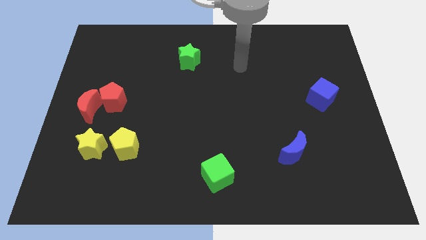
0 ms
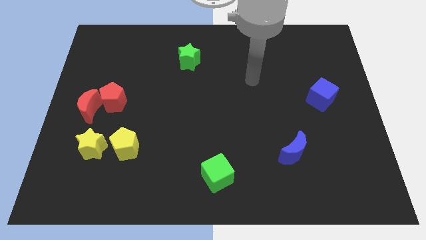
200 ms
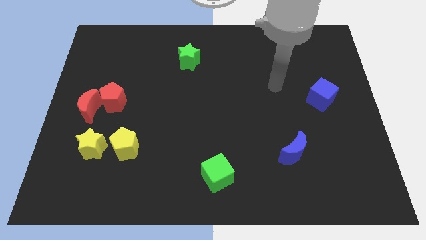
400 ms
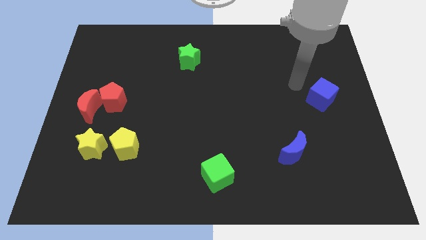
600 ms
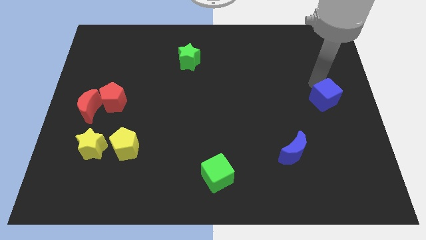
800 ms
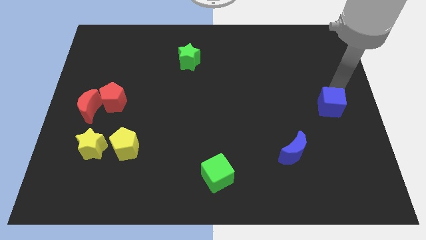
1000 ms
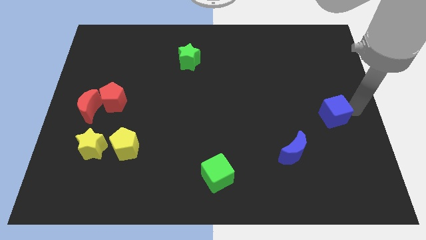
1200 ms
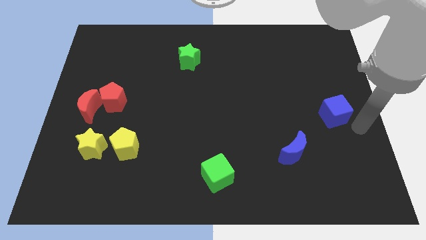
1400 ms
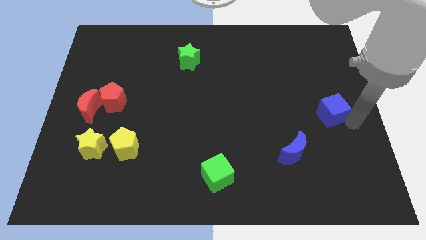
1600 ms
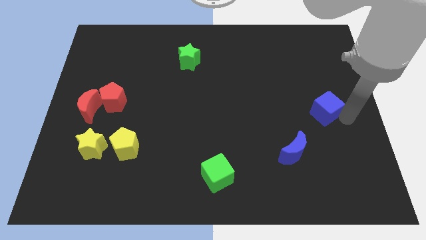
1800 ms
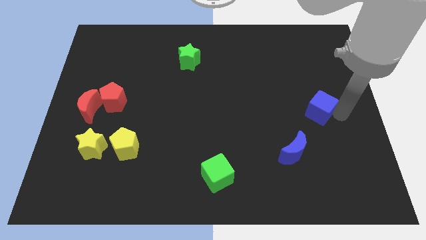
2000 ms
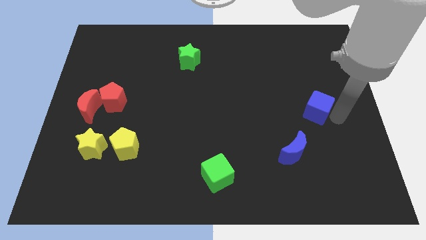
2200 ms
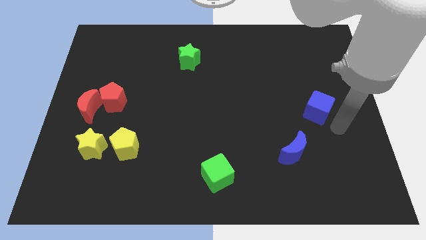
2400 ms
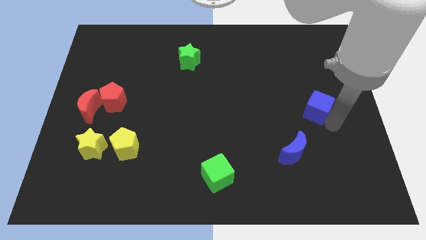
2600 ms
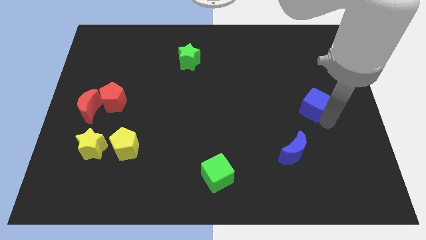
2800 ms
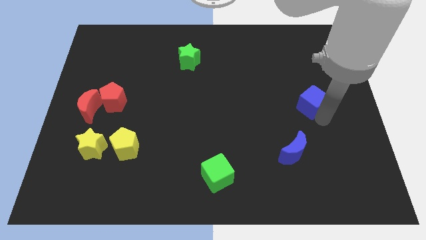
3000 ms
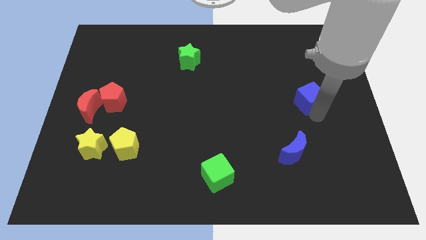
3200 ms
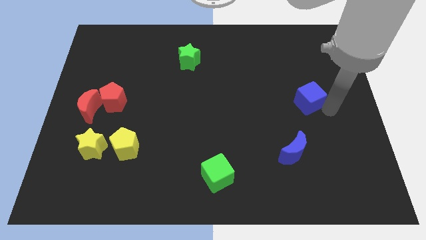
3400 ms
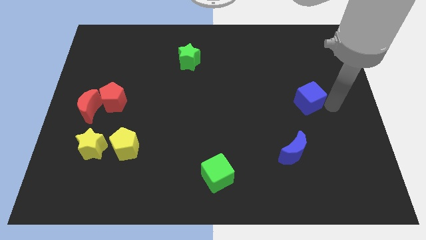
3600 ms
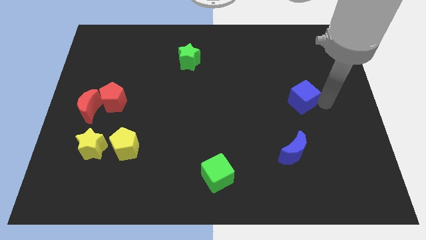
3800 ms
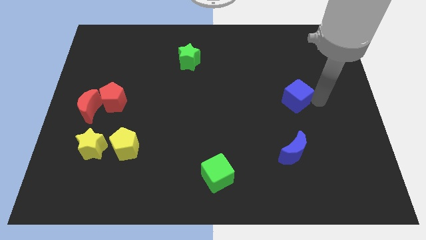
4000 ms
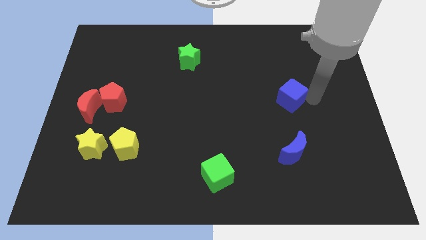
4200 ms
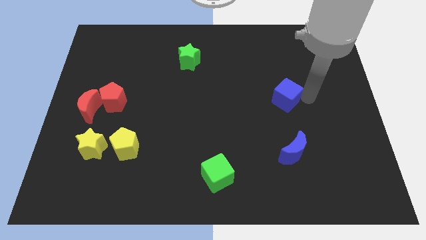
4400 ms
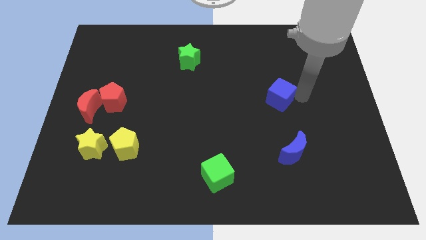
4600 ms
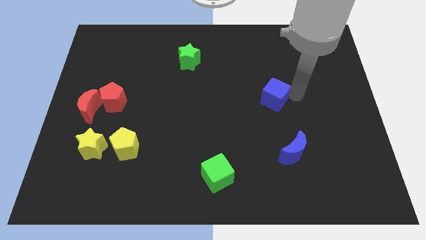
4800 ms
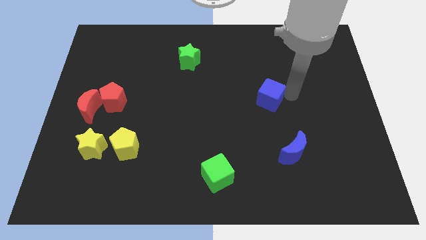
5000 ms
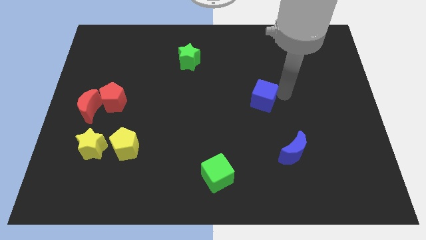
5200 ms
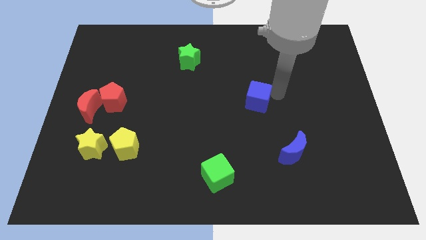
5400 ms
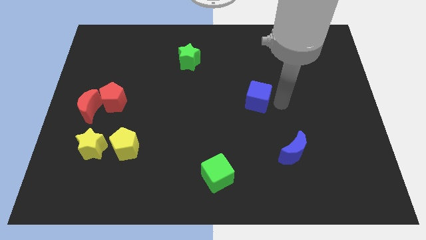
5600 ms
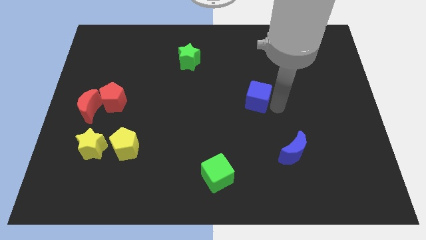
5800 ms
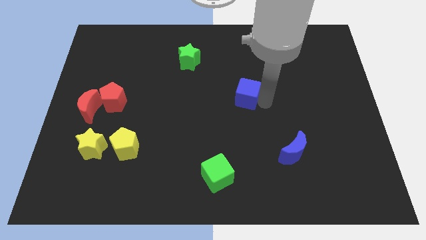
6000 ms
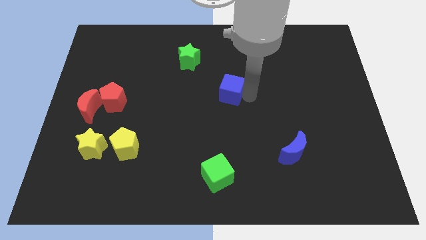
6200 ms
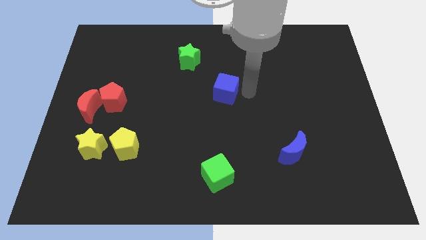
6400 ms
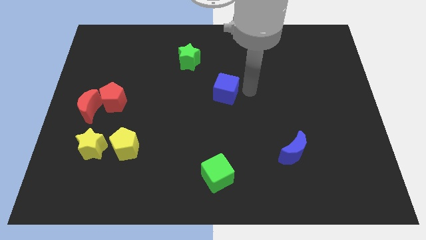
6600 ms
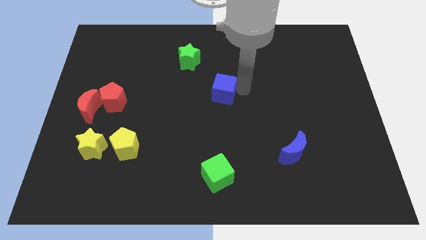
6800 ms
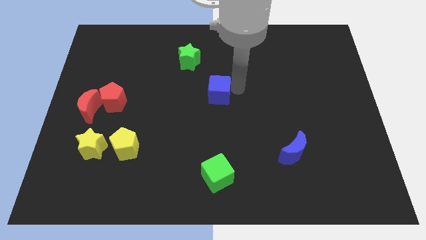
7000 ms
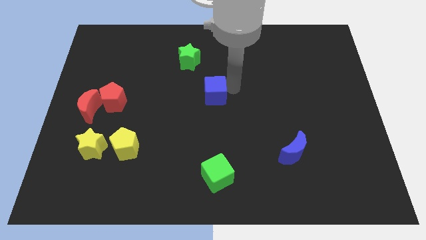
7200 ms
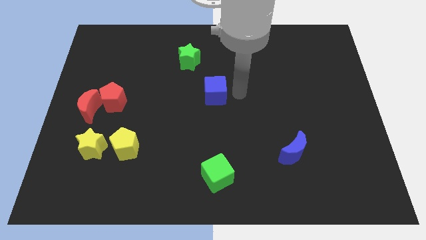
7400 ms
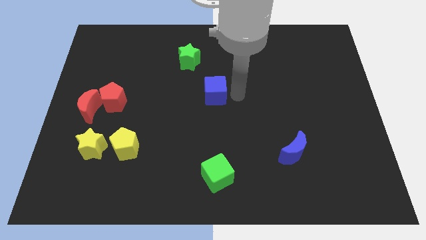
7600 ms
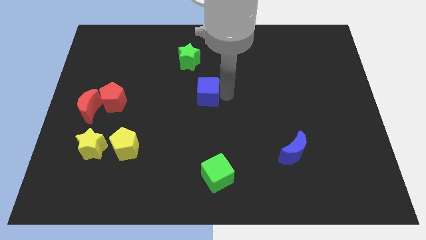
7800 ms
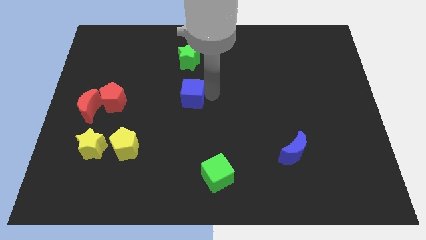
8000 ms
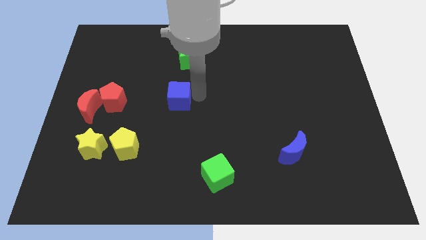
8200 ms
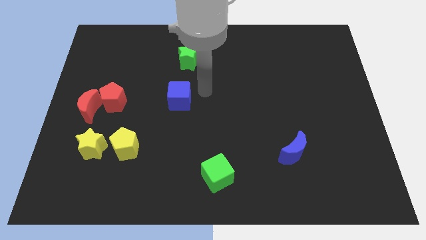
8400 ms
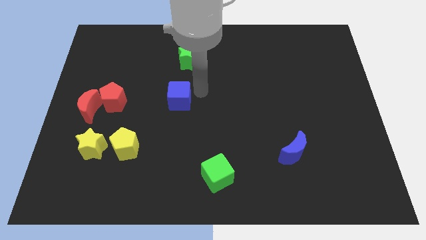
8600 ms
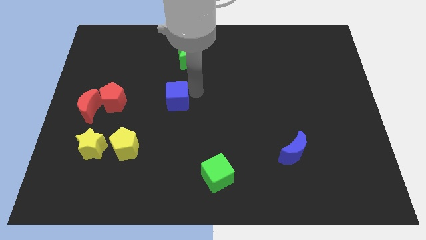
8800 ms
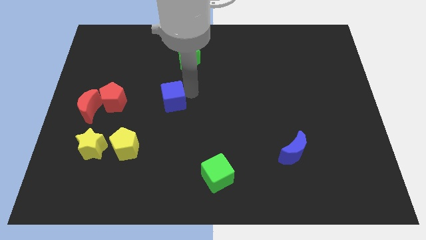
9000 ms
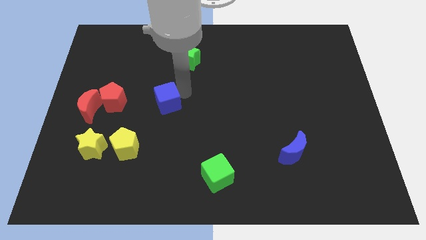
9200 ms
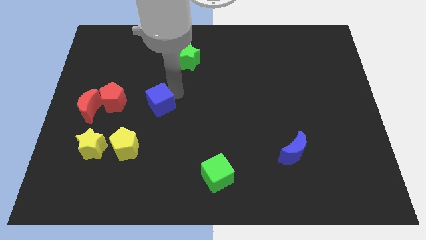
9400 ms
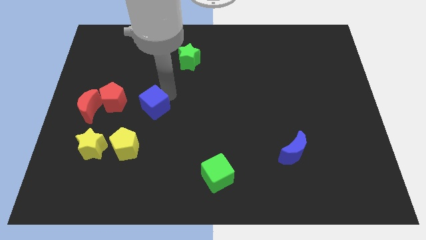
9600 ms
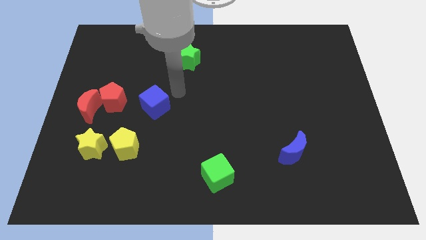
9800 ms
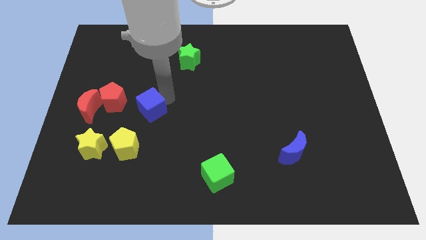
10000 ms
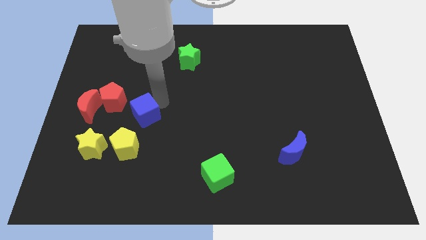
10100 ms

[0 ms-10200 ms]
slide the blue cube to the bottom right side of the red pentagon

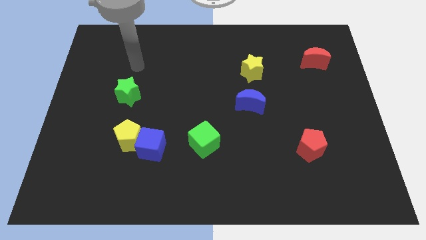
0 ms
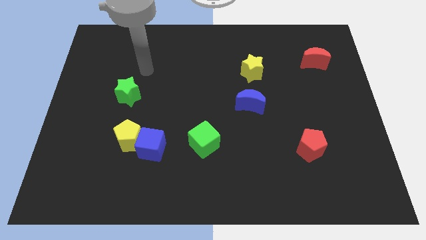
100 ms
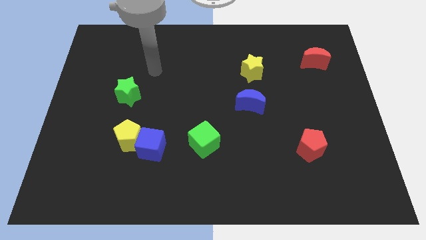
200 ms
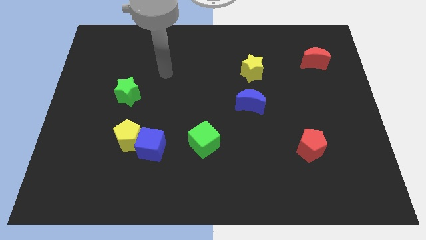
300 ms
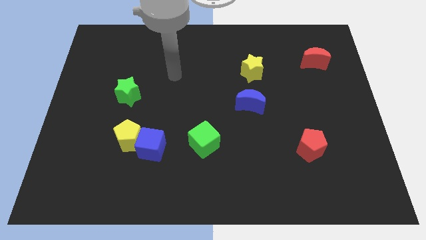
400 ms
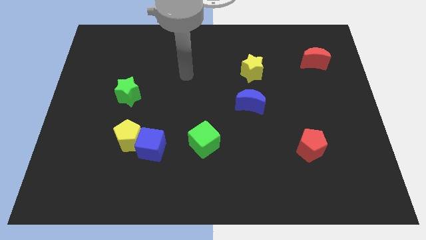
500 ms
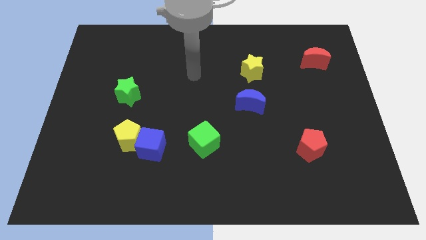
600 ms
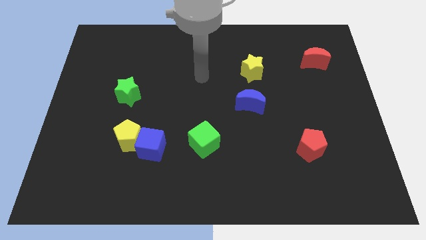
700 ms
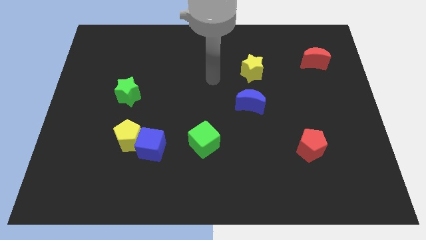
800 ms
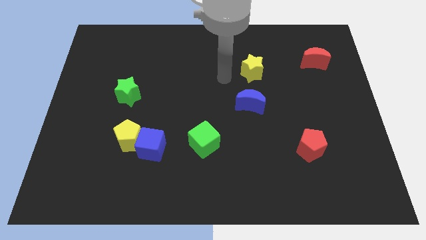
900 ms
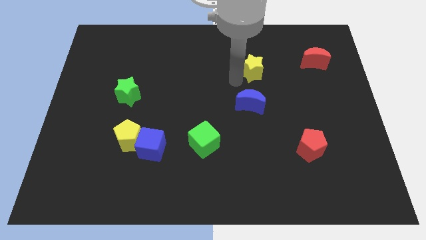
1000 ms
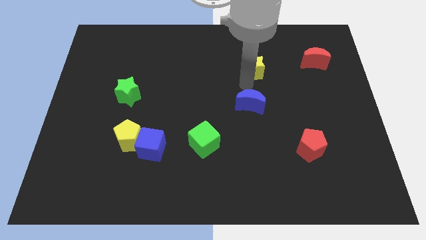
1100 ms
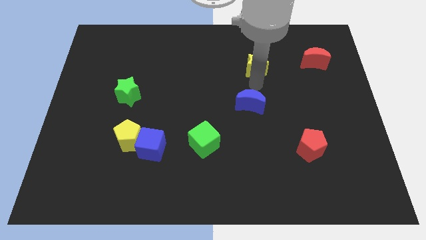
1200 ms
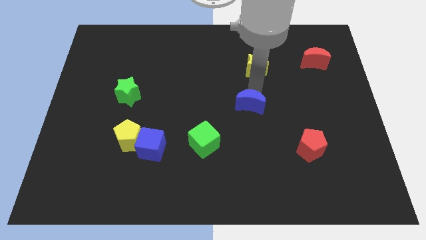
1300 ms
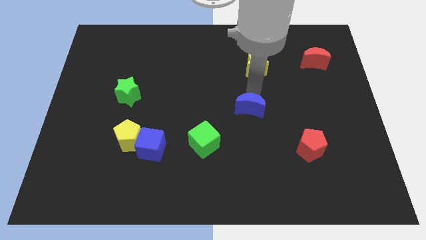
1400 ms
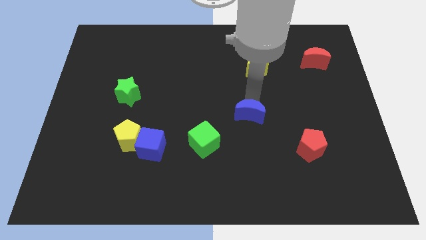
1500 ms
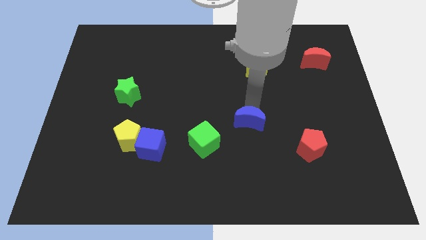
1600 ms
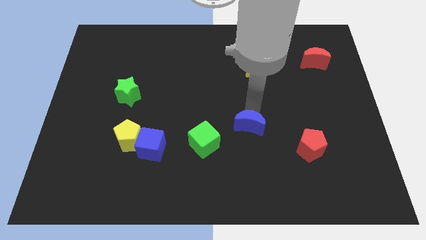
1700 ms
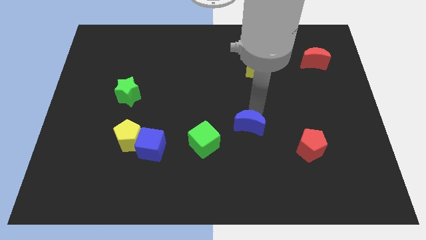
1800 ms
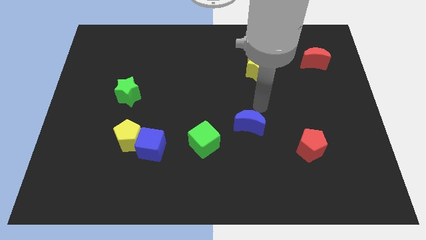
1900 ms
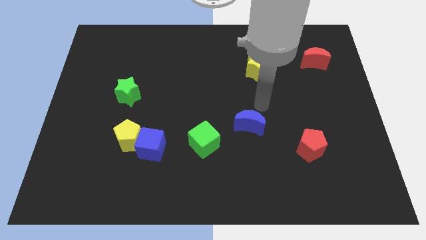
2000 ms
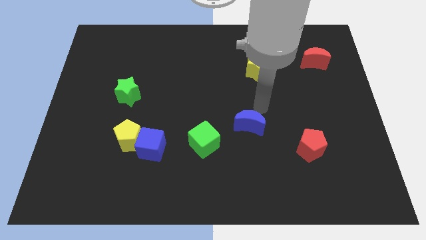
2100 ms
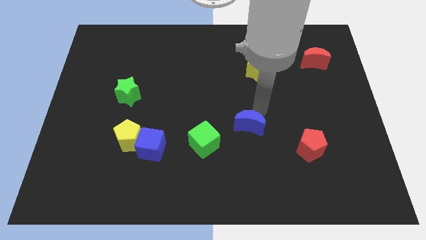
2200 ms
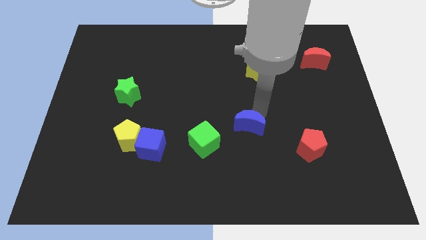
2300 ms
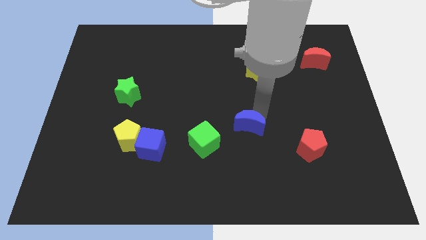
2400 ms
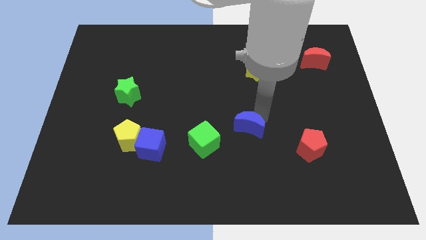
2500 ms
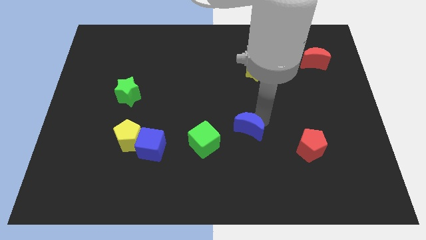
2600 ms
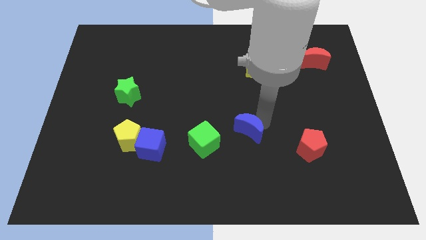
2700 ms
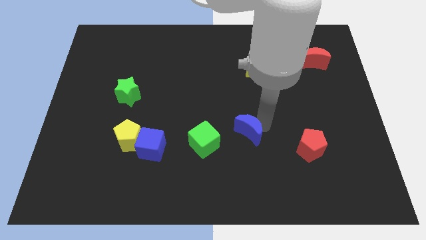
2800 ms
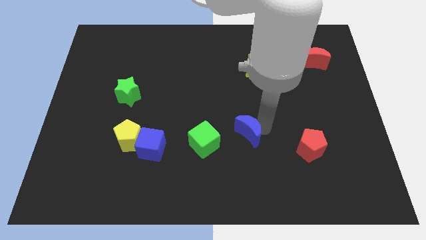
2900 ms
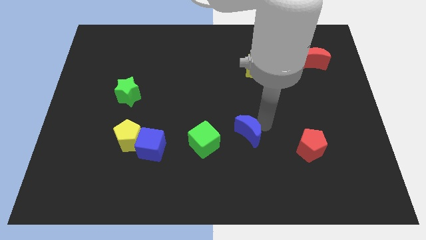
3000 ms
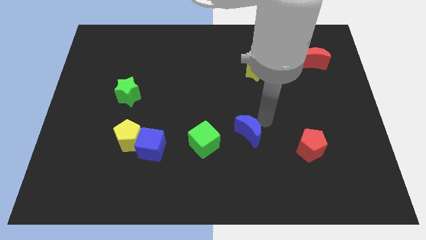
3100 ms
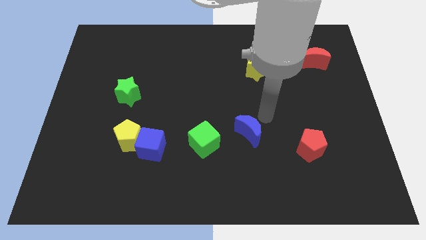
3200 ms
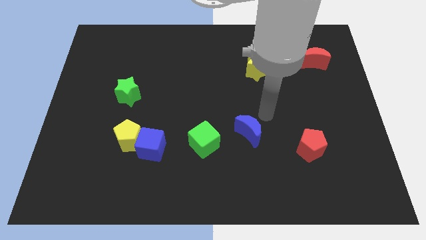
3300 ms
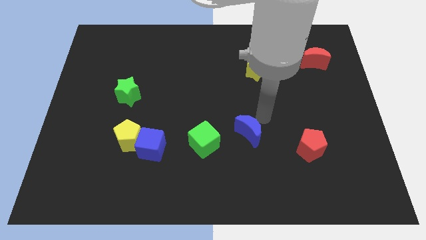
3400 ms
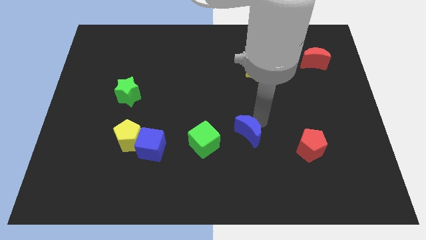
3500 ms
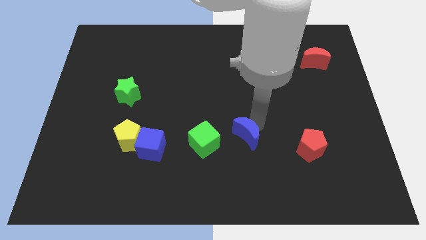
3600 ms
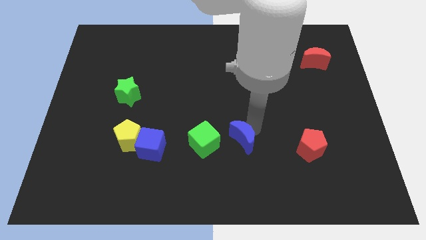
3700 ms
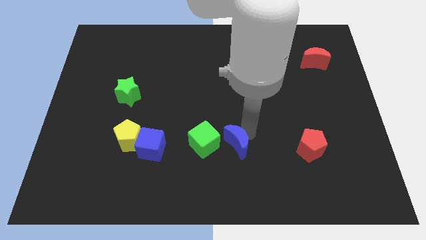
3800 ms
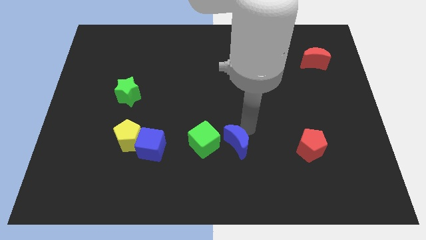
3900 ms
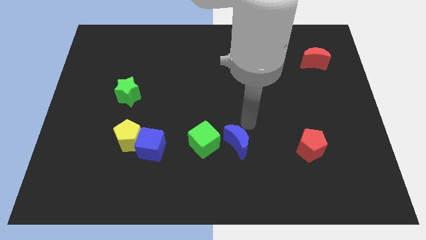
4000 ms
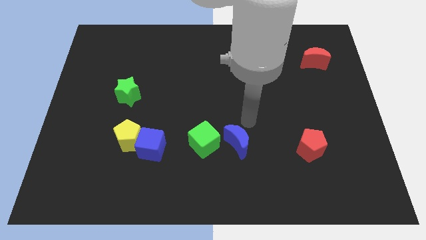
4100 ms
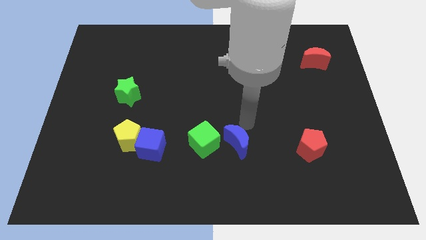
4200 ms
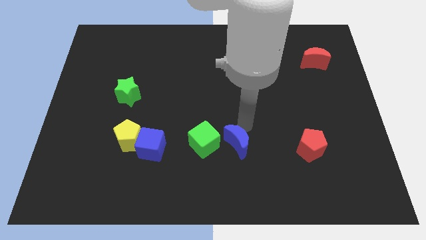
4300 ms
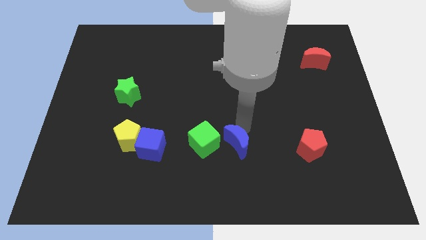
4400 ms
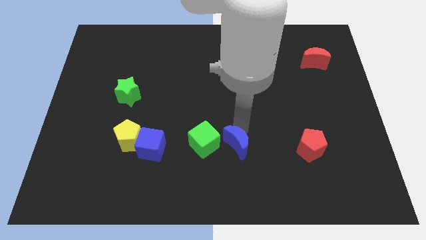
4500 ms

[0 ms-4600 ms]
push the blue moon diagonally down and to the right of the green cube
